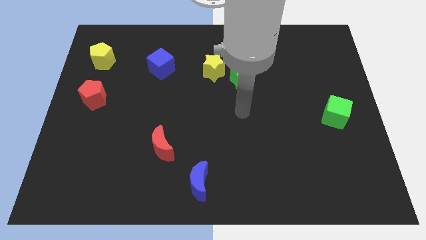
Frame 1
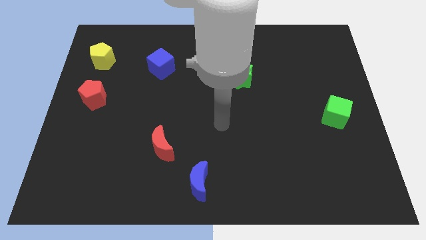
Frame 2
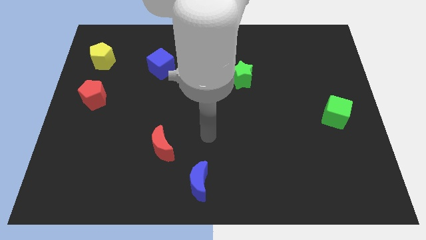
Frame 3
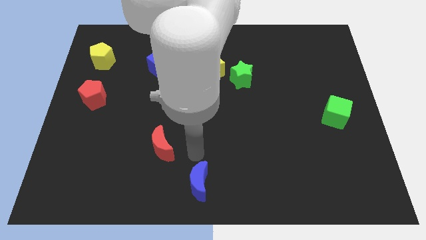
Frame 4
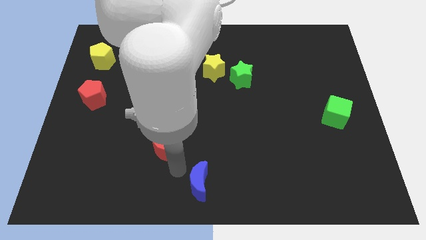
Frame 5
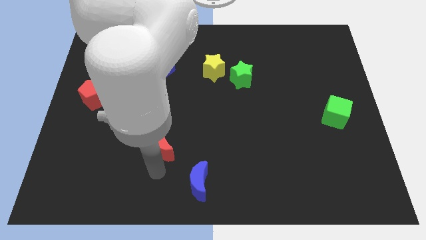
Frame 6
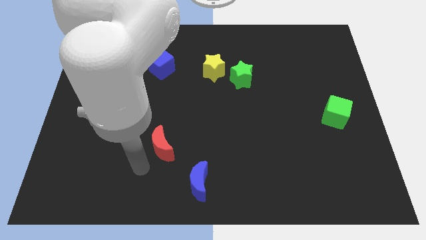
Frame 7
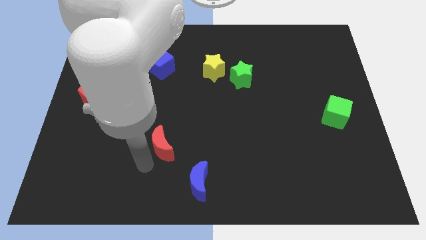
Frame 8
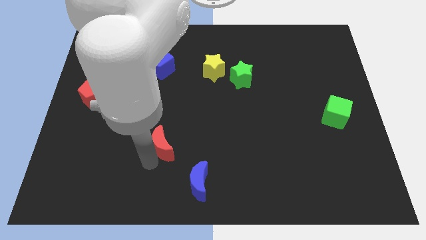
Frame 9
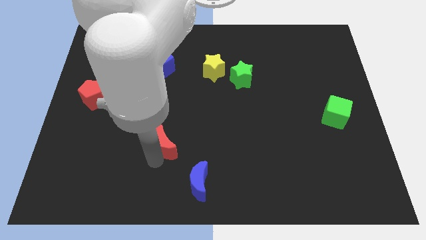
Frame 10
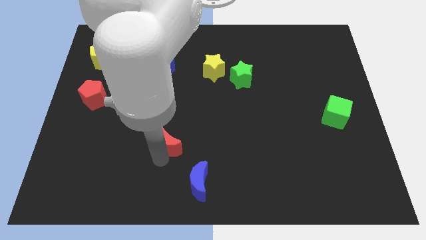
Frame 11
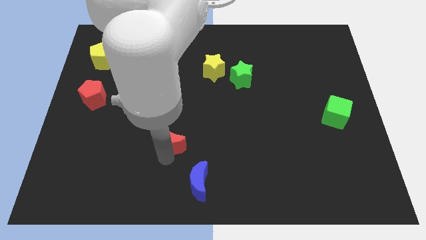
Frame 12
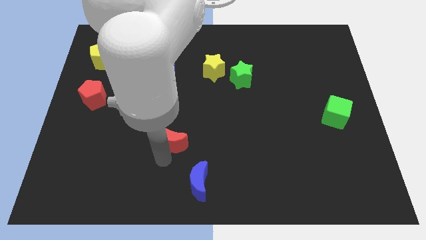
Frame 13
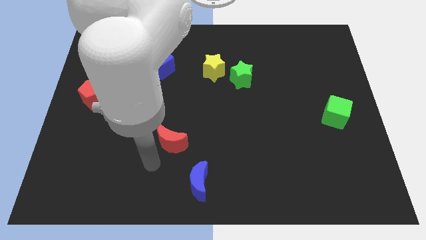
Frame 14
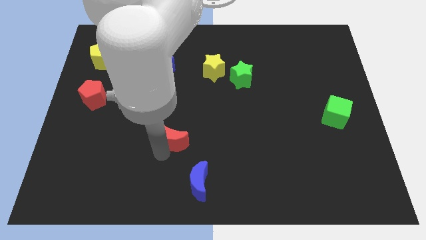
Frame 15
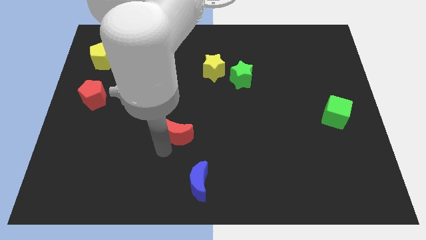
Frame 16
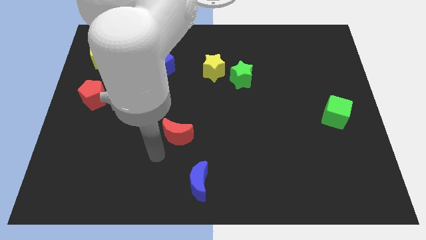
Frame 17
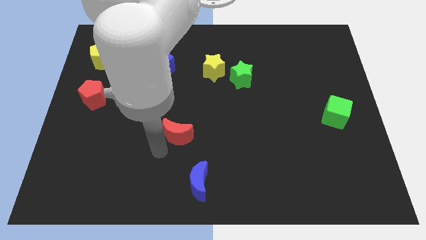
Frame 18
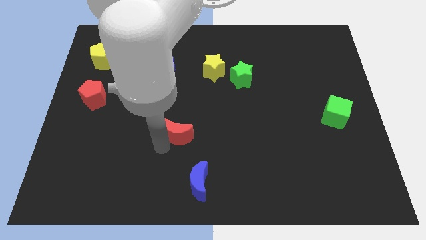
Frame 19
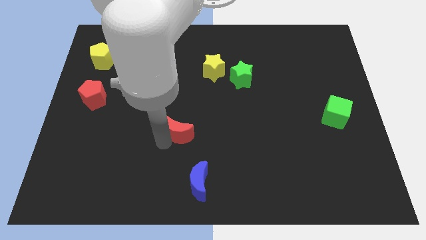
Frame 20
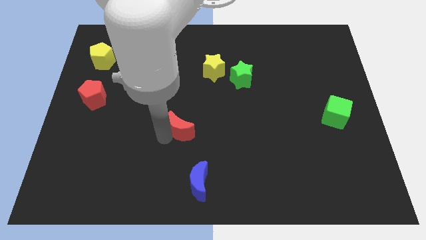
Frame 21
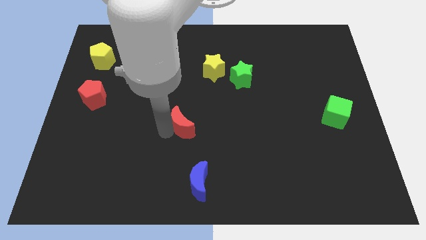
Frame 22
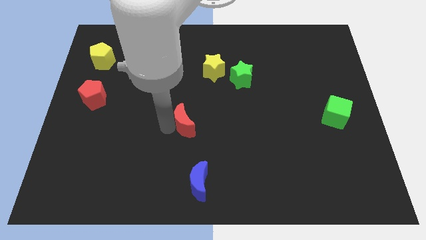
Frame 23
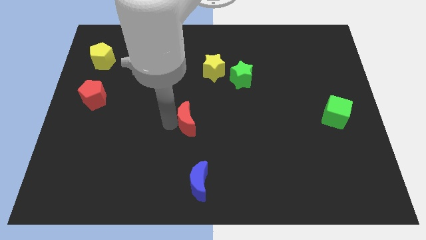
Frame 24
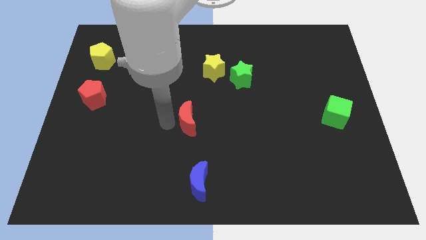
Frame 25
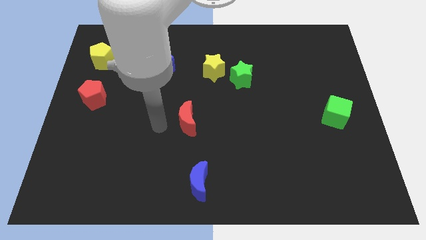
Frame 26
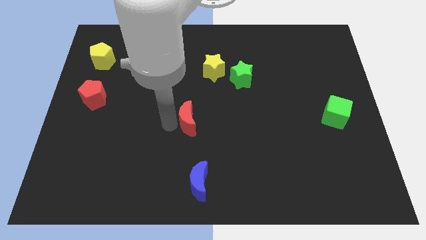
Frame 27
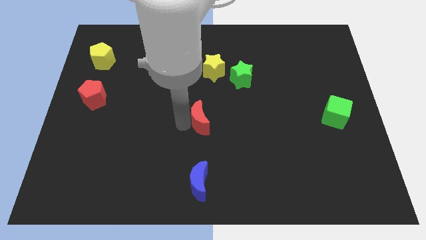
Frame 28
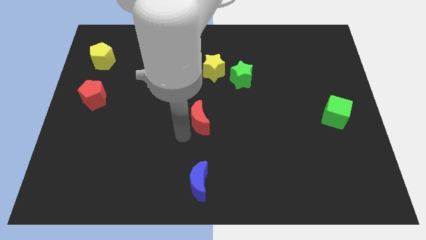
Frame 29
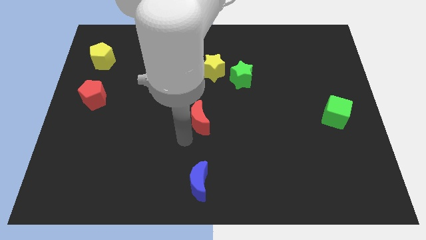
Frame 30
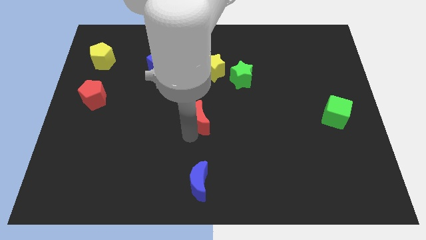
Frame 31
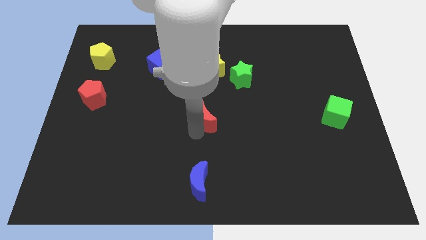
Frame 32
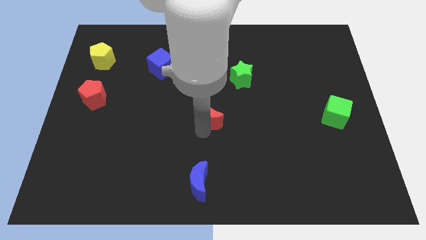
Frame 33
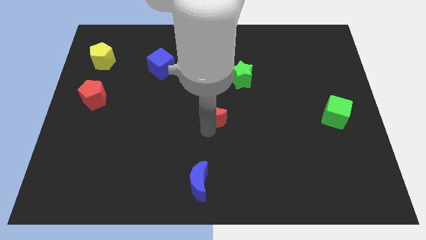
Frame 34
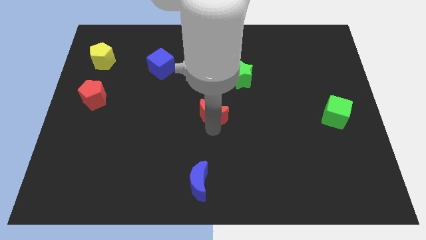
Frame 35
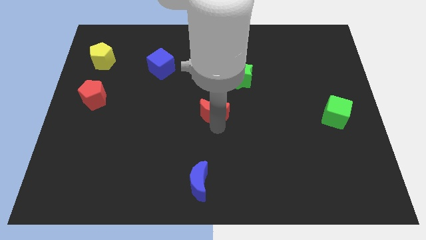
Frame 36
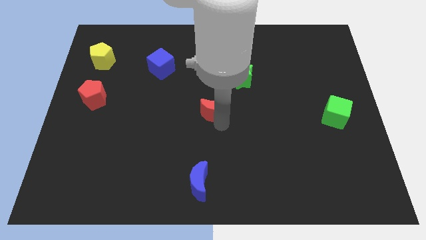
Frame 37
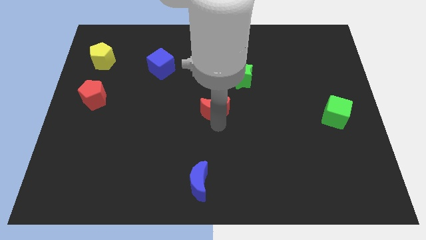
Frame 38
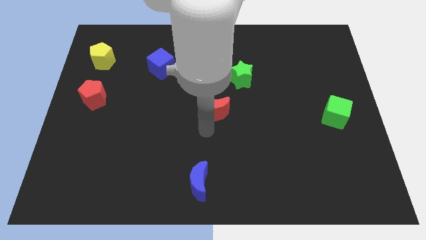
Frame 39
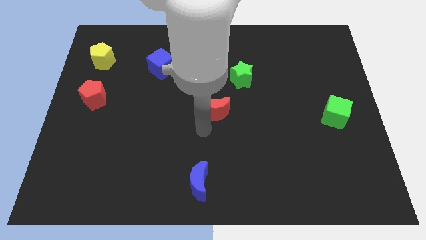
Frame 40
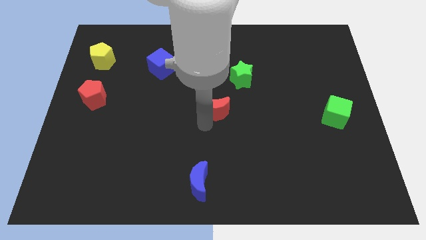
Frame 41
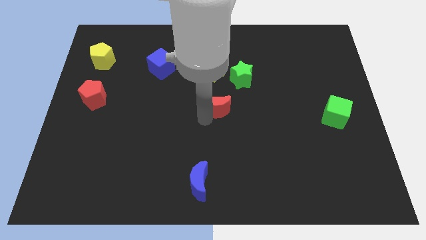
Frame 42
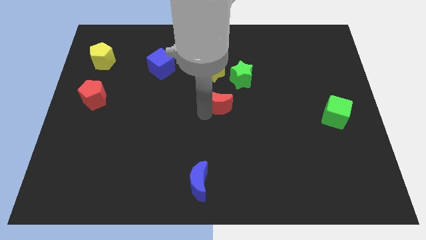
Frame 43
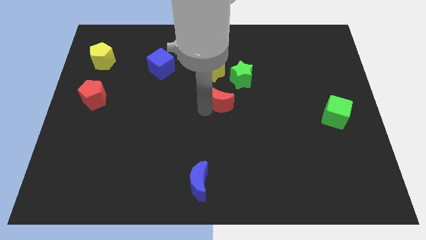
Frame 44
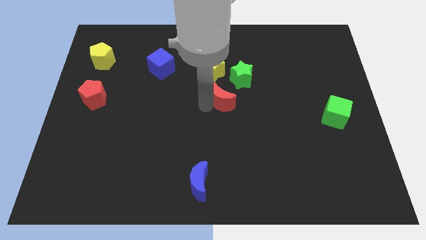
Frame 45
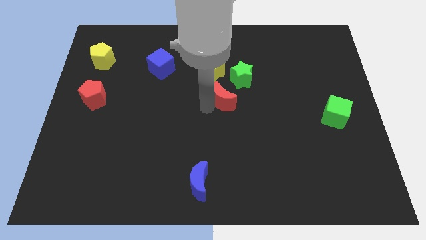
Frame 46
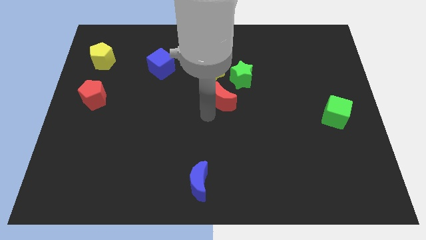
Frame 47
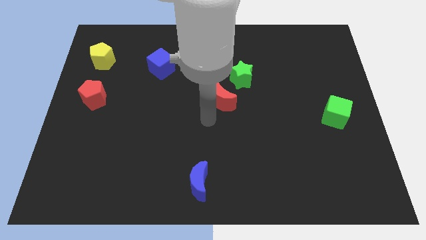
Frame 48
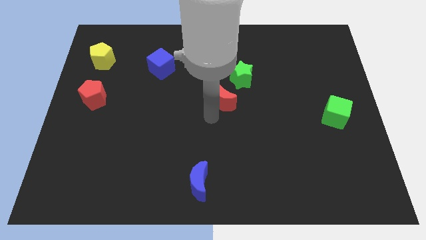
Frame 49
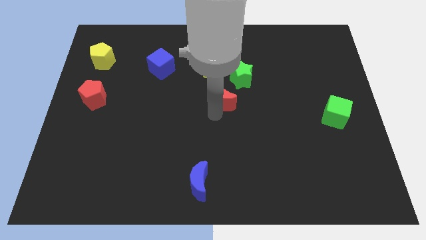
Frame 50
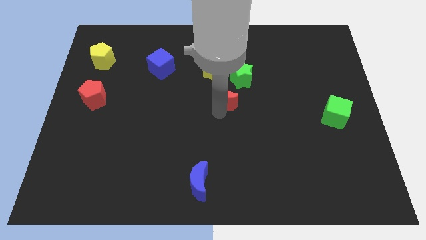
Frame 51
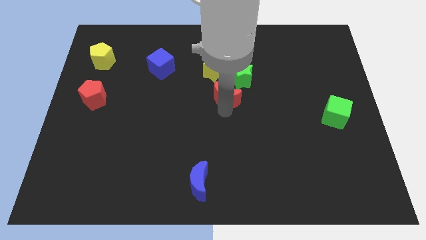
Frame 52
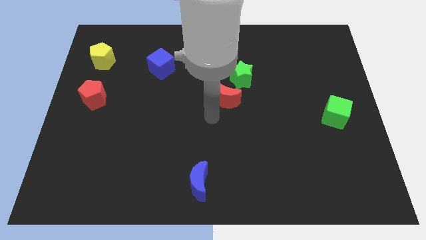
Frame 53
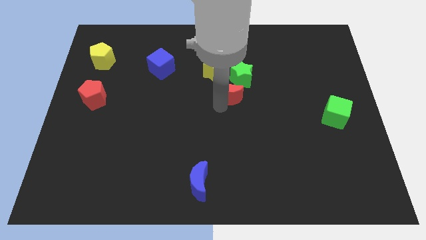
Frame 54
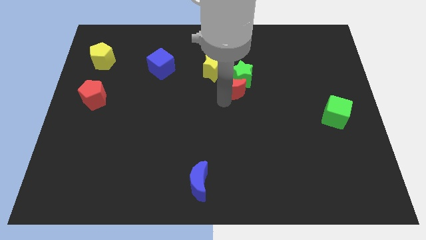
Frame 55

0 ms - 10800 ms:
push the red moon close to the green star

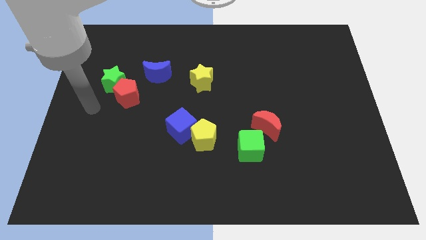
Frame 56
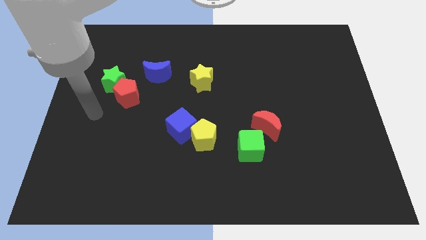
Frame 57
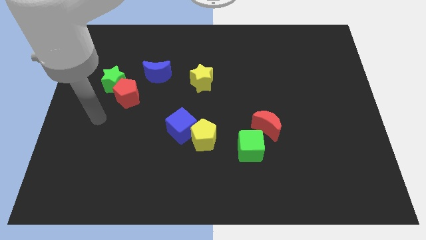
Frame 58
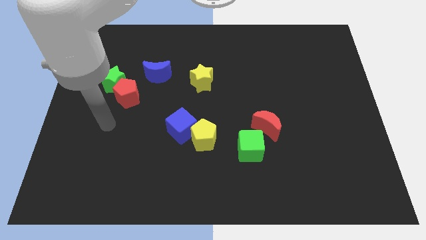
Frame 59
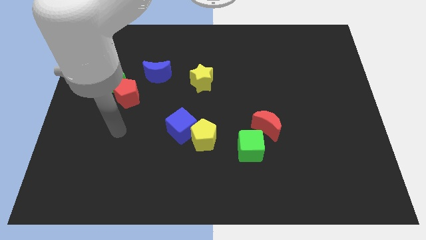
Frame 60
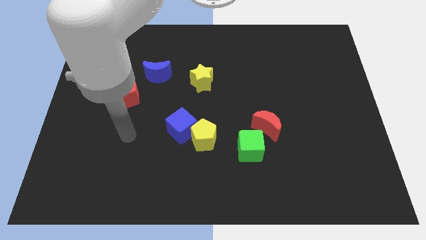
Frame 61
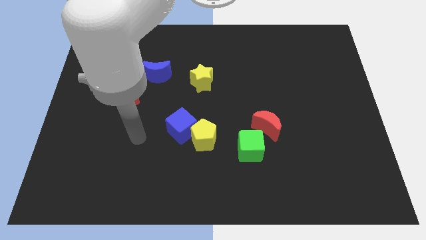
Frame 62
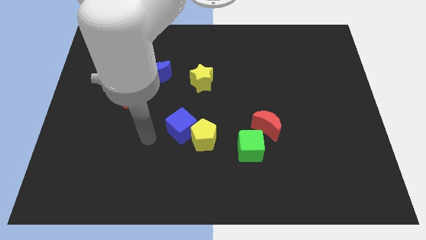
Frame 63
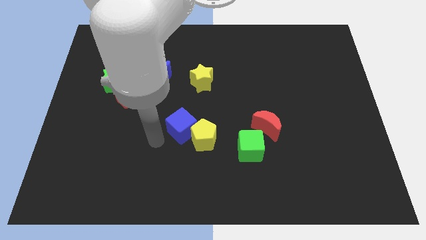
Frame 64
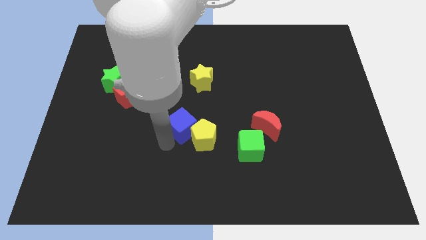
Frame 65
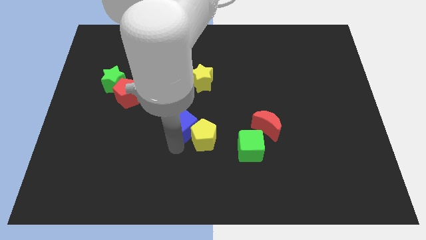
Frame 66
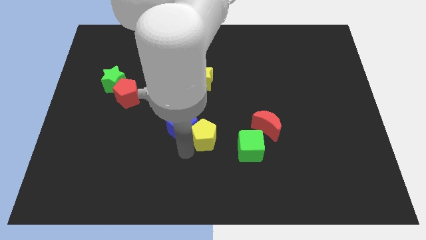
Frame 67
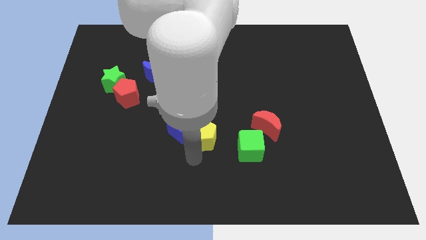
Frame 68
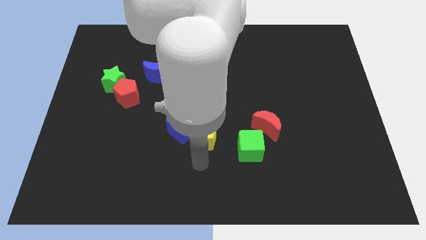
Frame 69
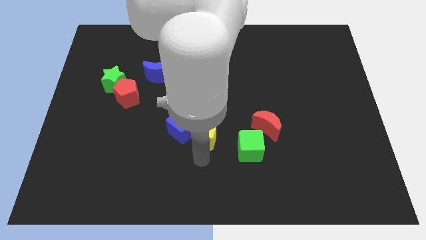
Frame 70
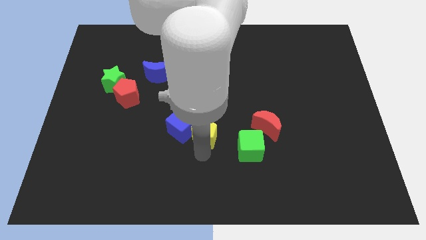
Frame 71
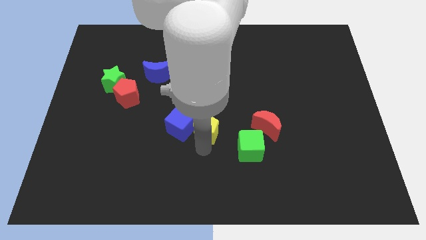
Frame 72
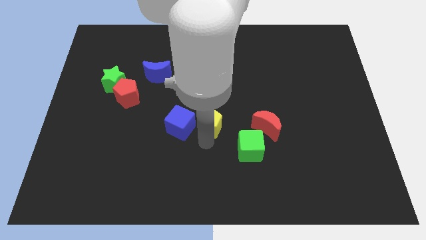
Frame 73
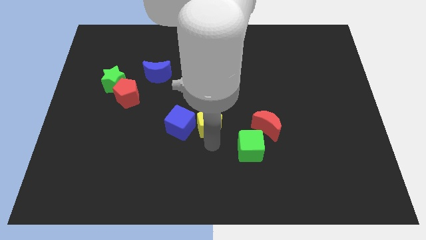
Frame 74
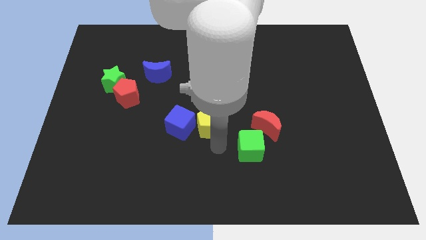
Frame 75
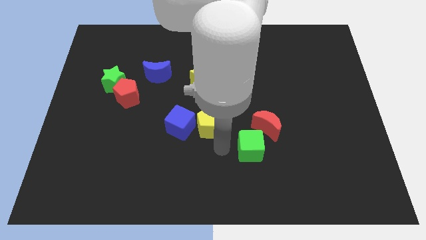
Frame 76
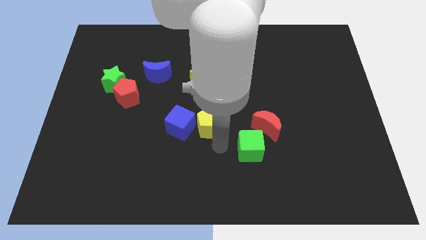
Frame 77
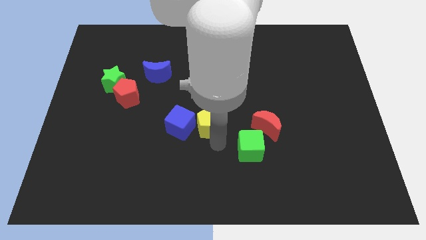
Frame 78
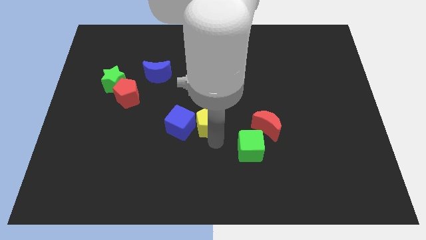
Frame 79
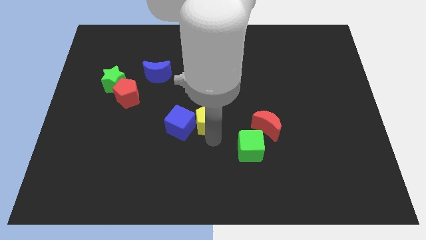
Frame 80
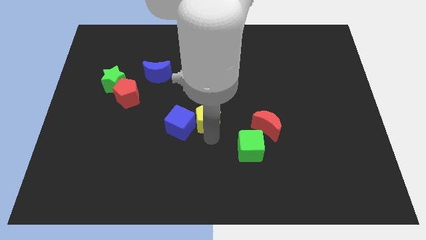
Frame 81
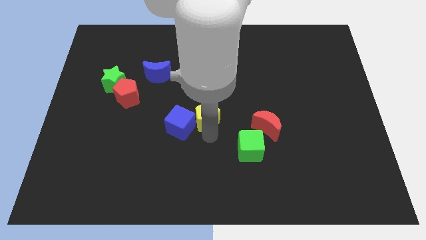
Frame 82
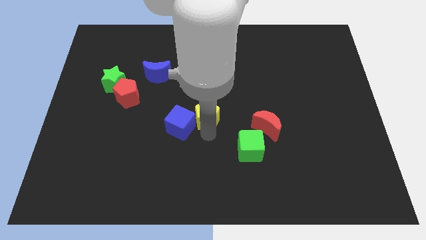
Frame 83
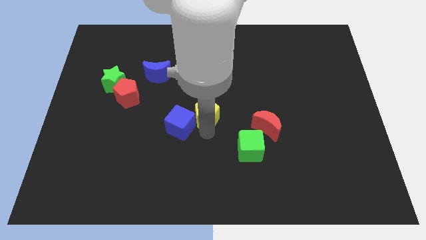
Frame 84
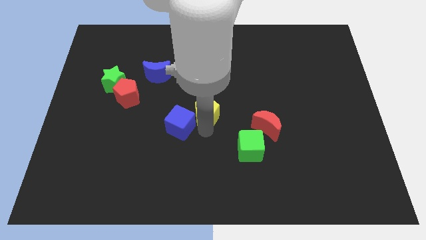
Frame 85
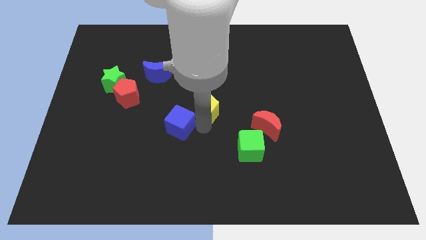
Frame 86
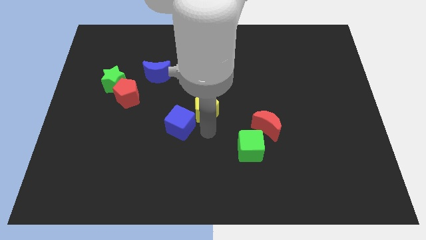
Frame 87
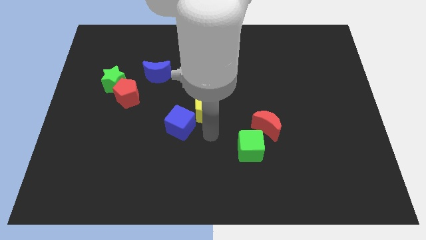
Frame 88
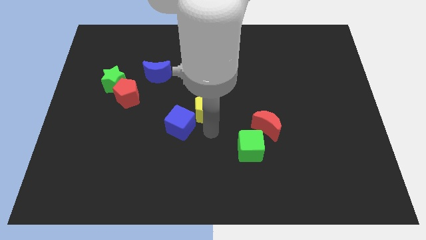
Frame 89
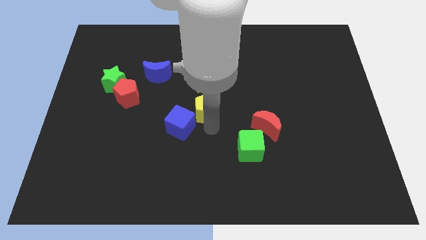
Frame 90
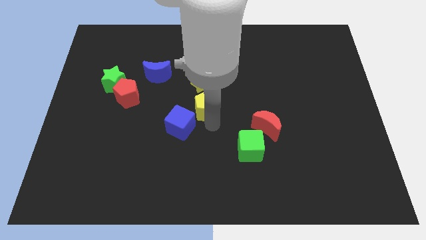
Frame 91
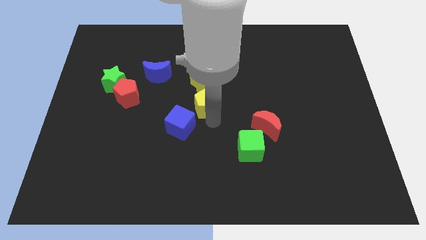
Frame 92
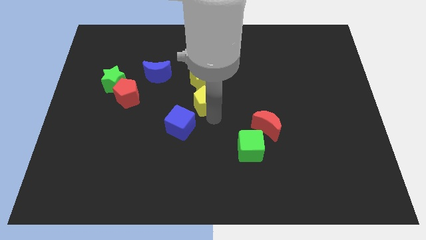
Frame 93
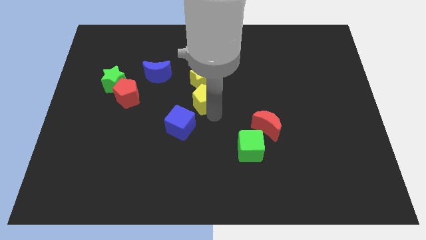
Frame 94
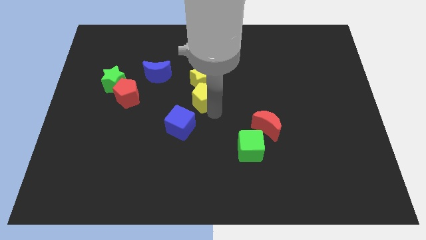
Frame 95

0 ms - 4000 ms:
push the yellow pentagon to the yellow star
